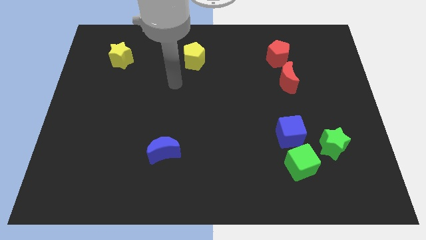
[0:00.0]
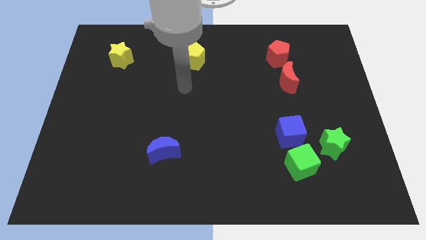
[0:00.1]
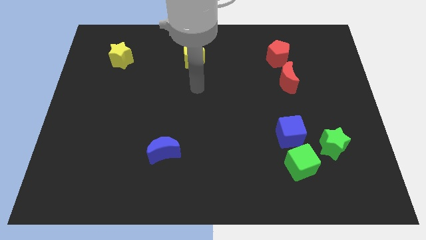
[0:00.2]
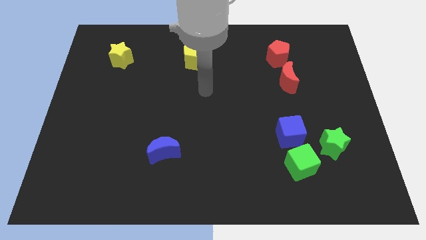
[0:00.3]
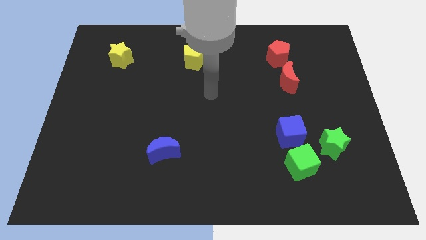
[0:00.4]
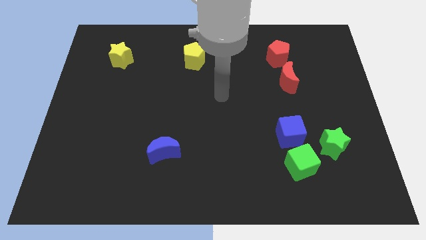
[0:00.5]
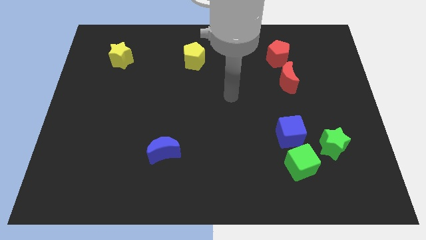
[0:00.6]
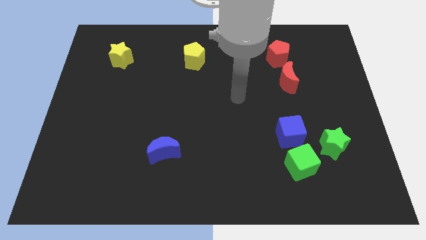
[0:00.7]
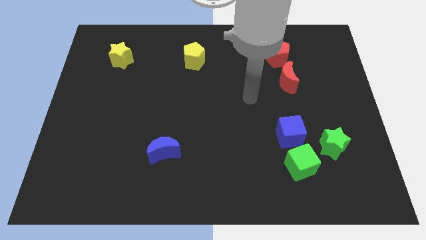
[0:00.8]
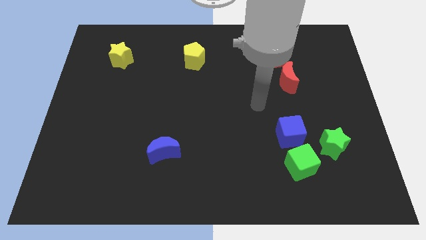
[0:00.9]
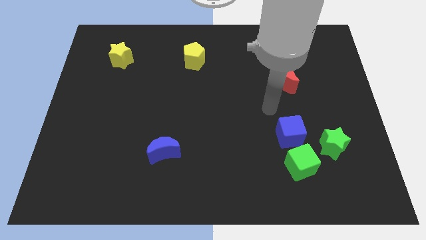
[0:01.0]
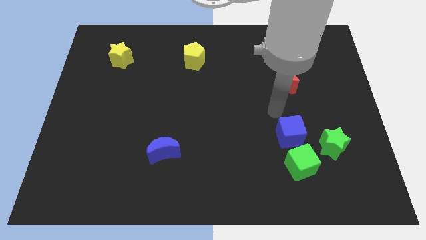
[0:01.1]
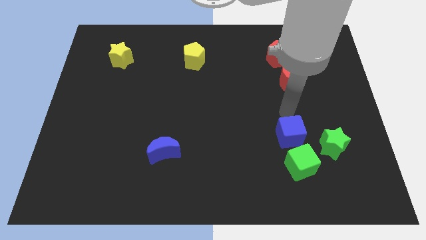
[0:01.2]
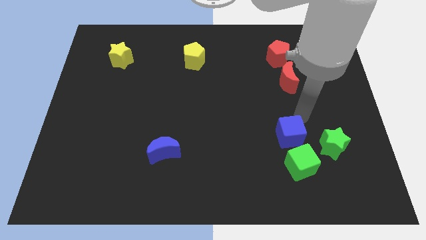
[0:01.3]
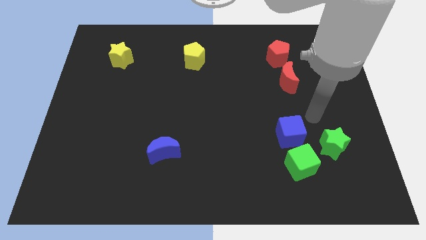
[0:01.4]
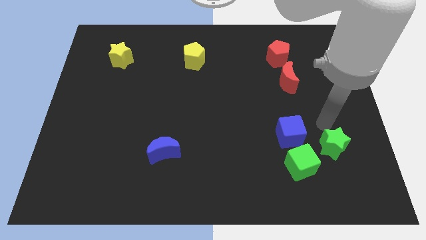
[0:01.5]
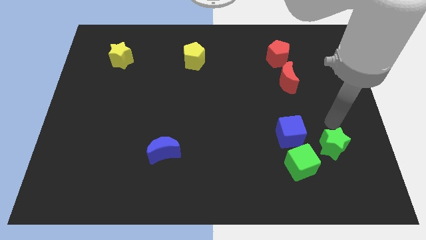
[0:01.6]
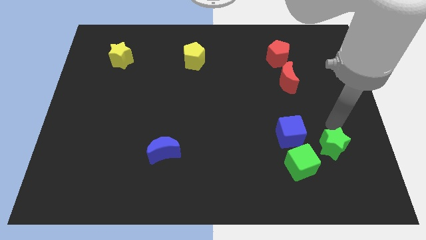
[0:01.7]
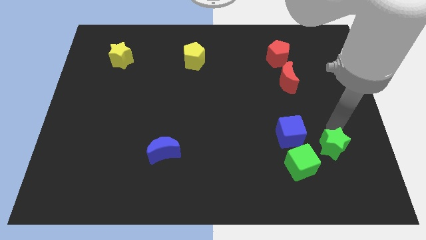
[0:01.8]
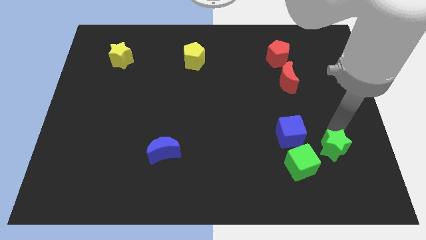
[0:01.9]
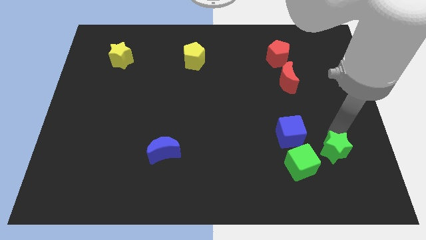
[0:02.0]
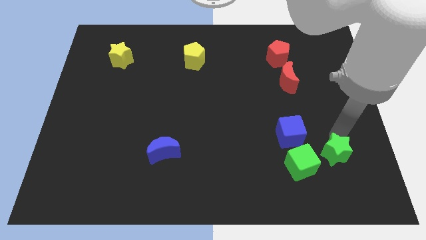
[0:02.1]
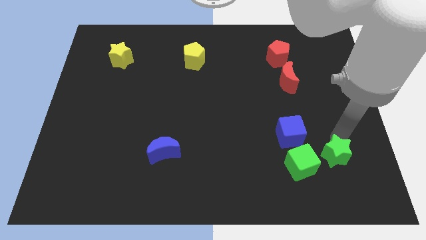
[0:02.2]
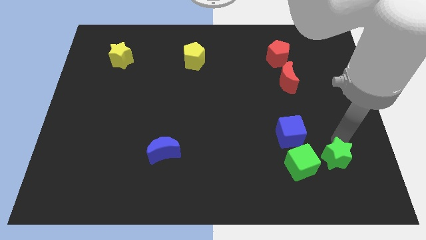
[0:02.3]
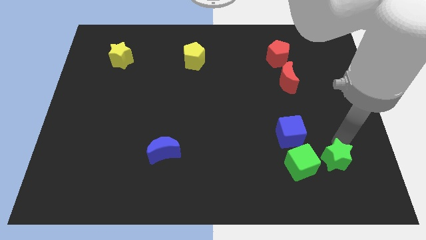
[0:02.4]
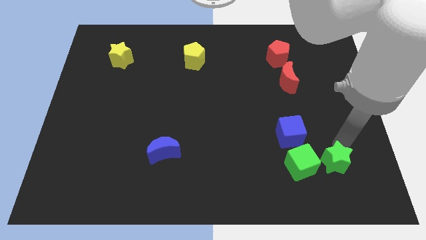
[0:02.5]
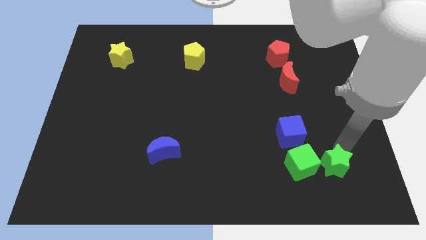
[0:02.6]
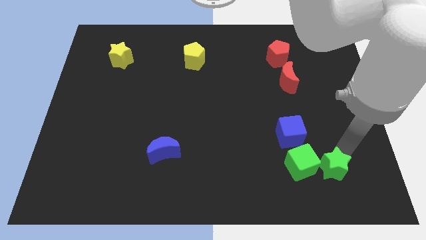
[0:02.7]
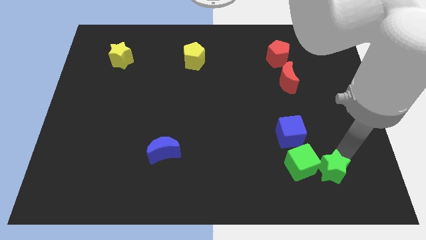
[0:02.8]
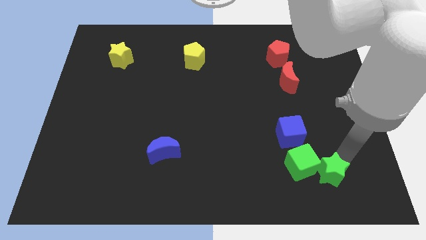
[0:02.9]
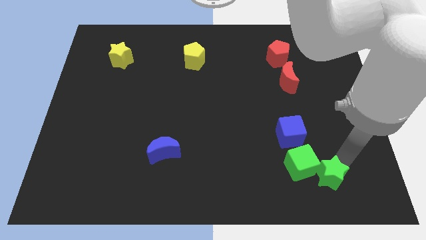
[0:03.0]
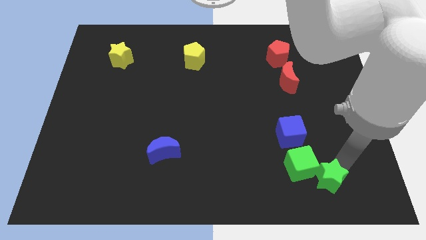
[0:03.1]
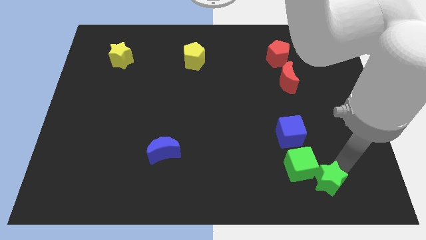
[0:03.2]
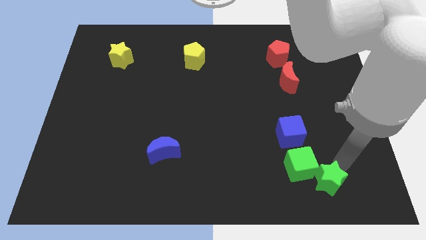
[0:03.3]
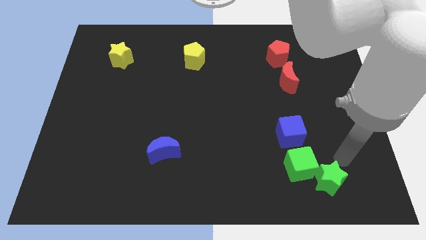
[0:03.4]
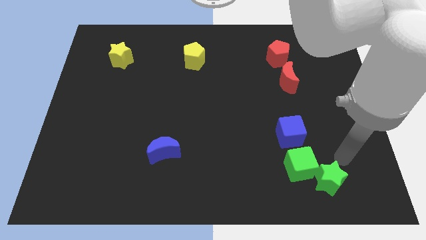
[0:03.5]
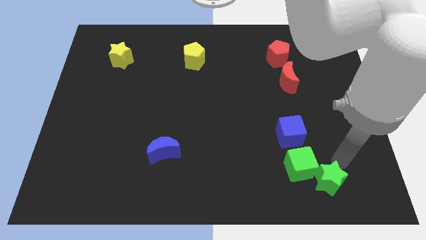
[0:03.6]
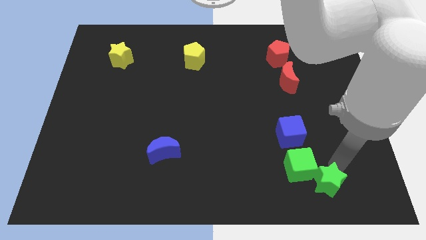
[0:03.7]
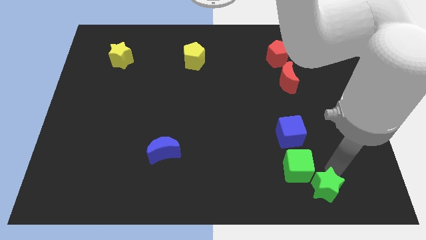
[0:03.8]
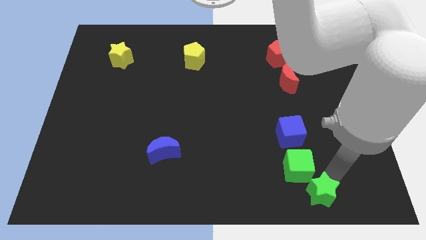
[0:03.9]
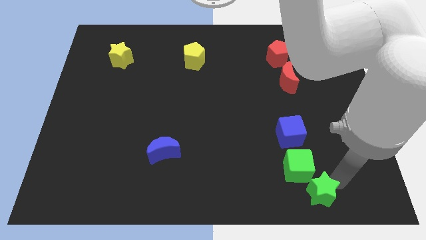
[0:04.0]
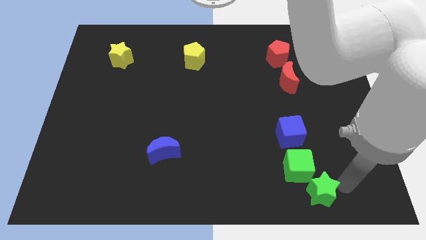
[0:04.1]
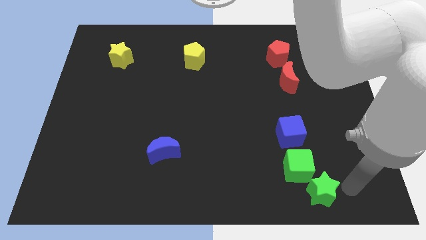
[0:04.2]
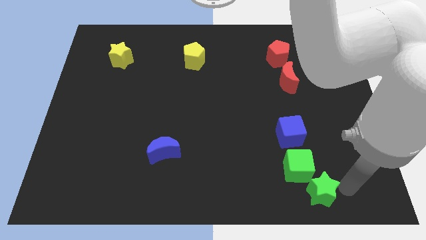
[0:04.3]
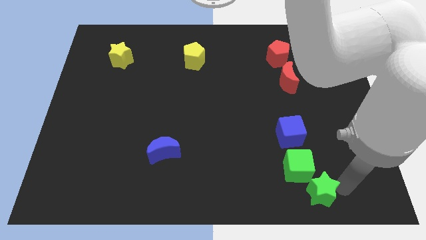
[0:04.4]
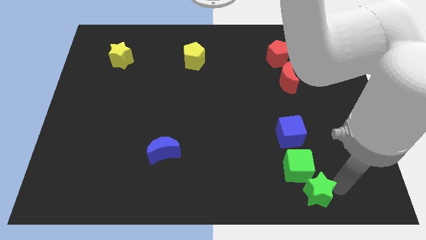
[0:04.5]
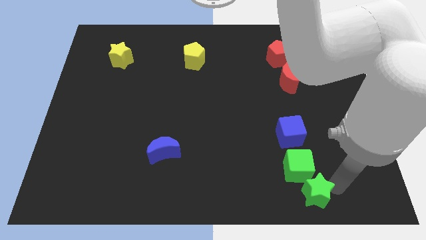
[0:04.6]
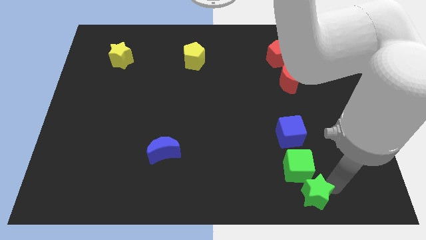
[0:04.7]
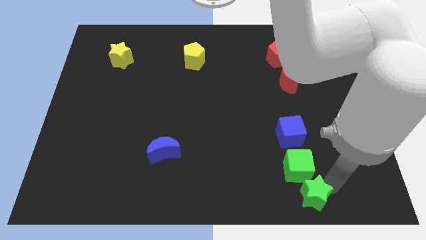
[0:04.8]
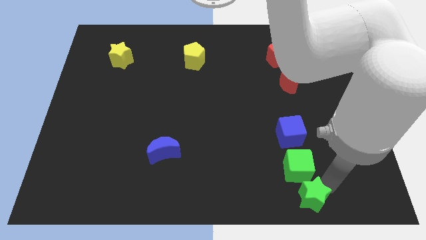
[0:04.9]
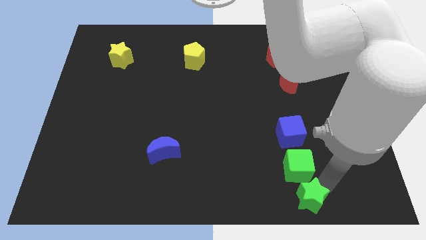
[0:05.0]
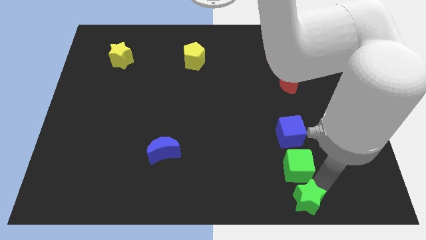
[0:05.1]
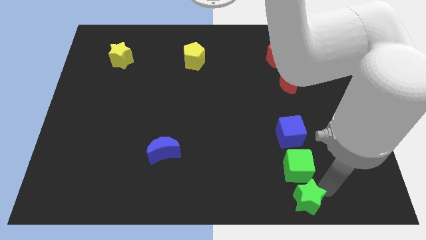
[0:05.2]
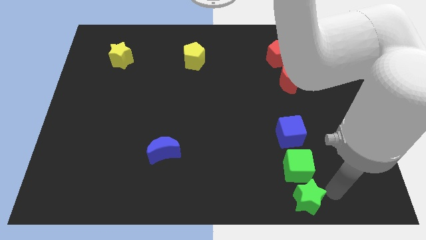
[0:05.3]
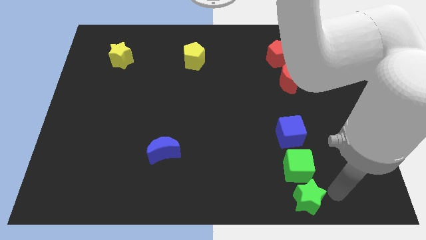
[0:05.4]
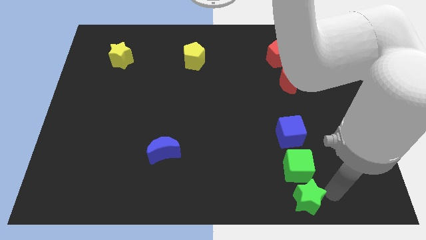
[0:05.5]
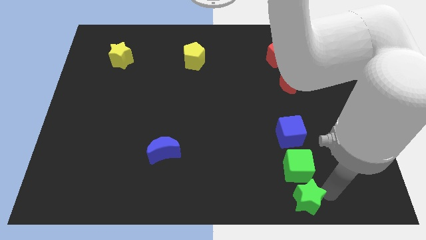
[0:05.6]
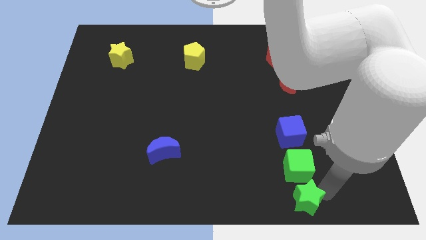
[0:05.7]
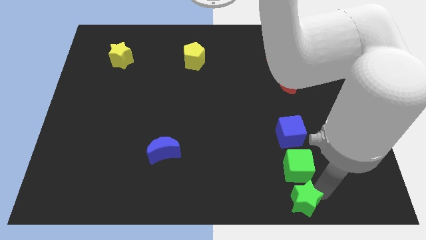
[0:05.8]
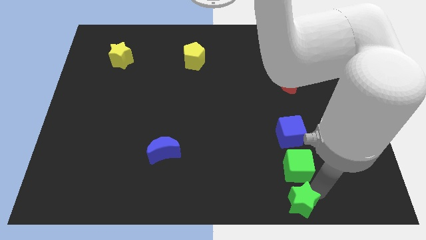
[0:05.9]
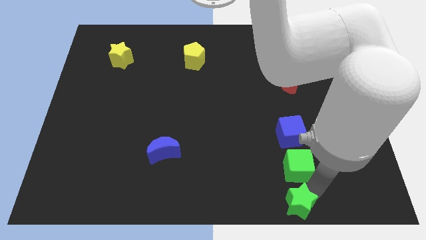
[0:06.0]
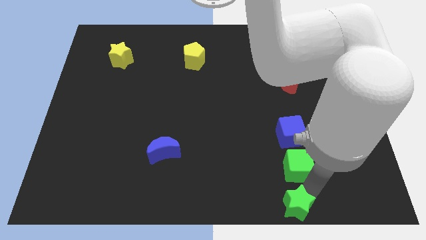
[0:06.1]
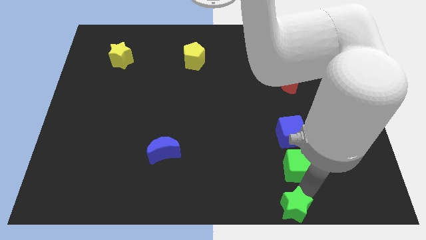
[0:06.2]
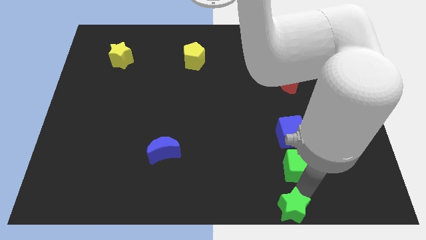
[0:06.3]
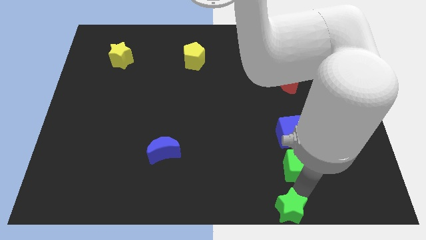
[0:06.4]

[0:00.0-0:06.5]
push the green star to the bottom
